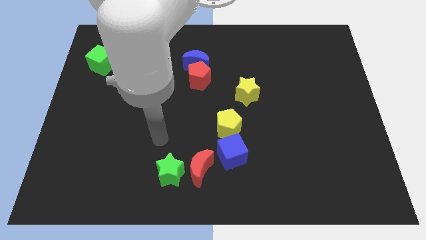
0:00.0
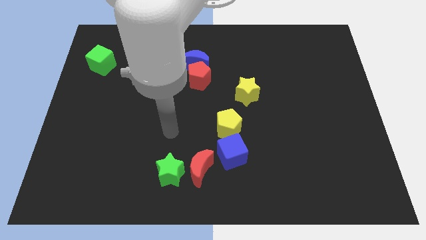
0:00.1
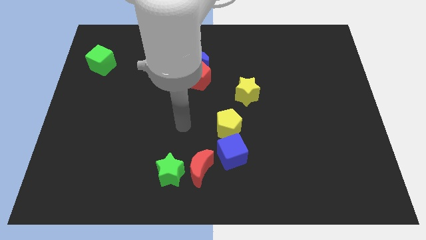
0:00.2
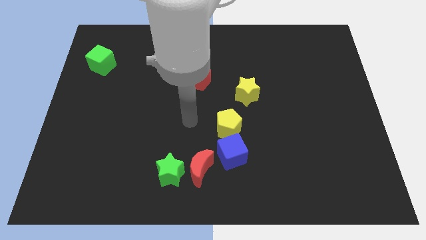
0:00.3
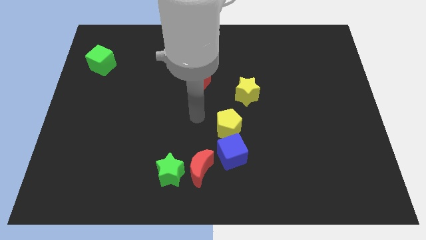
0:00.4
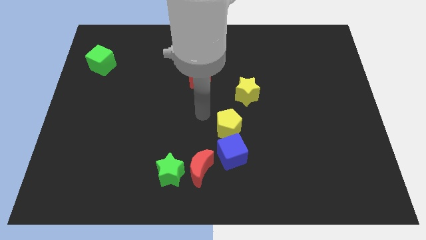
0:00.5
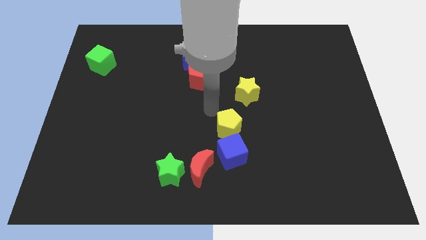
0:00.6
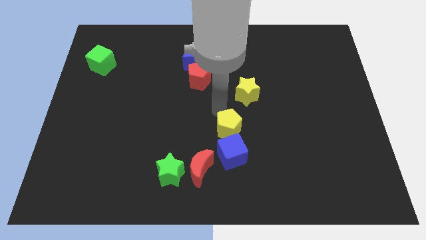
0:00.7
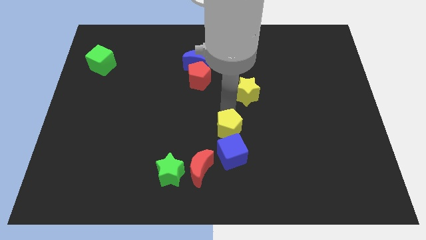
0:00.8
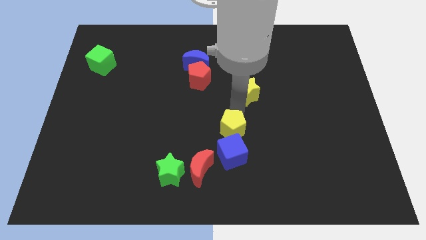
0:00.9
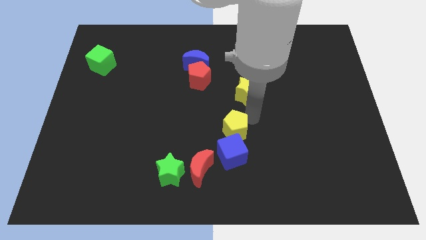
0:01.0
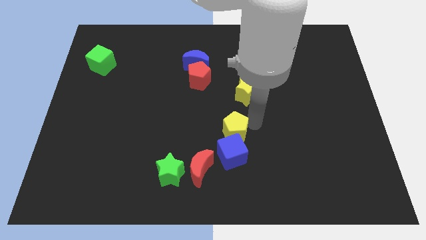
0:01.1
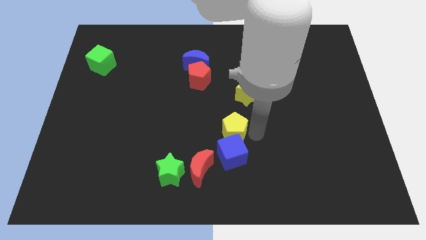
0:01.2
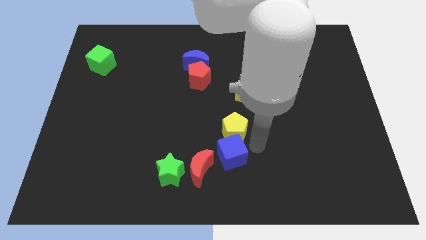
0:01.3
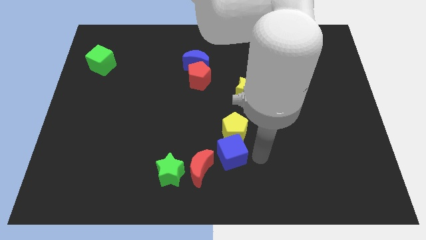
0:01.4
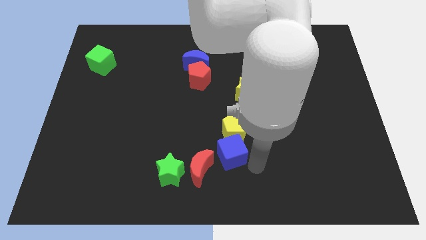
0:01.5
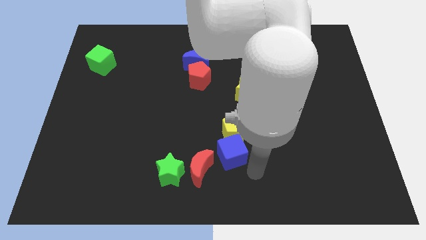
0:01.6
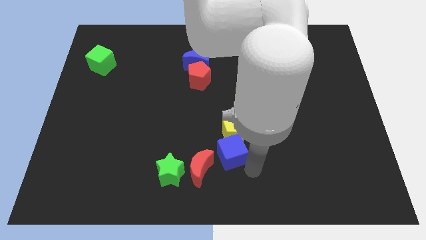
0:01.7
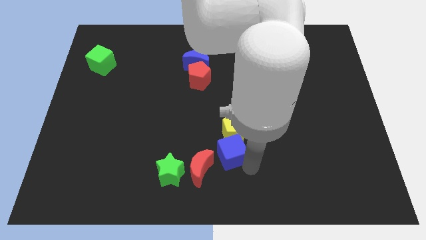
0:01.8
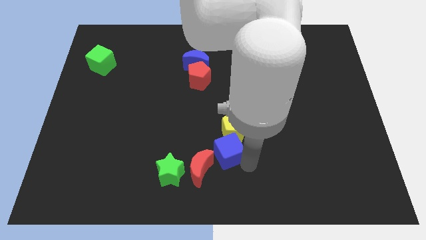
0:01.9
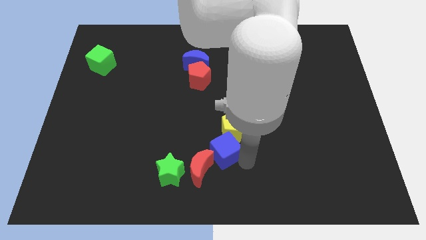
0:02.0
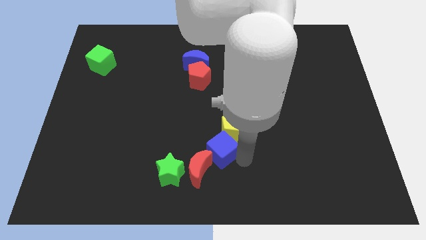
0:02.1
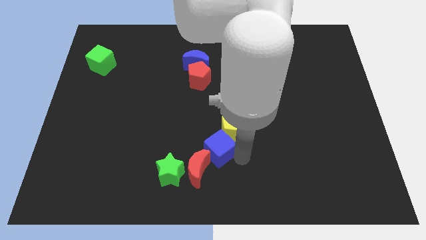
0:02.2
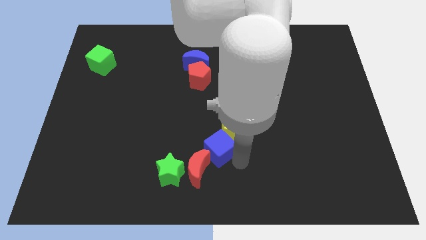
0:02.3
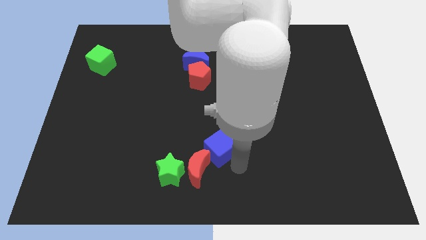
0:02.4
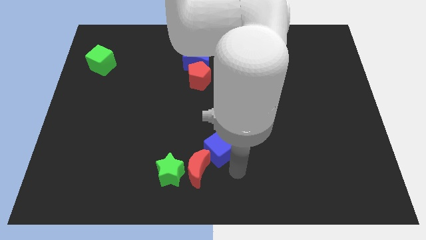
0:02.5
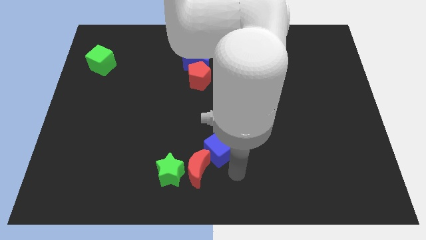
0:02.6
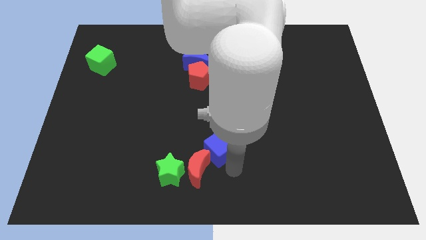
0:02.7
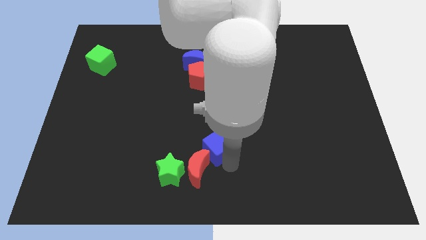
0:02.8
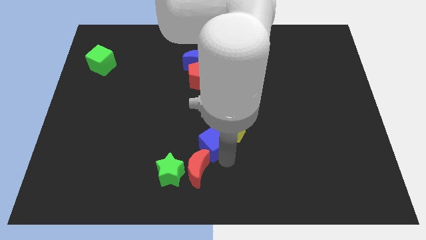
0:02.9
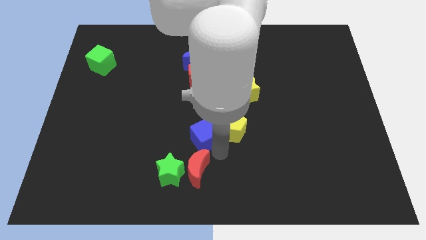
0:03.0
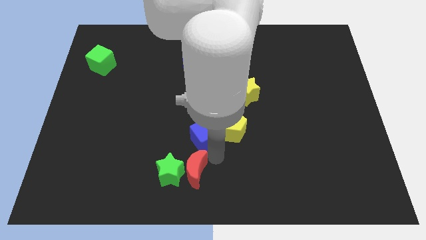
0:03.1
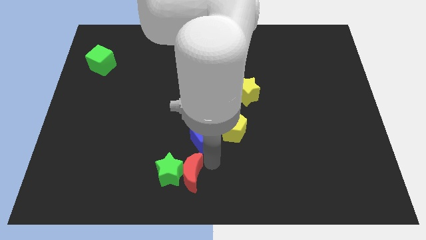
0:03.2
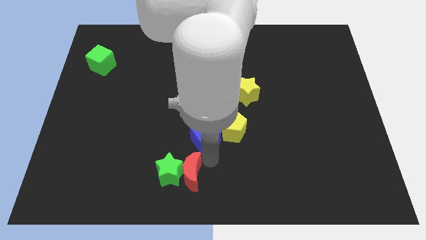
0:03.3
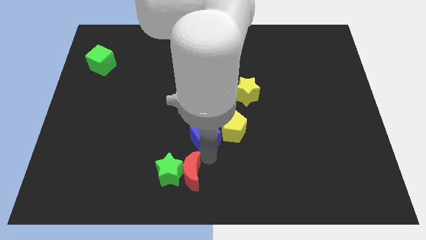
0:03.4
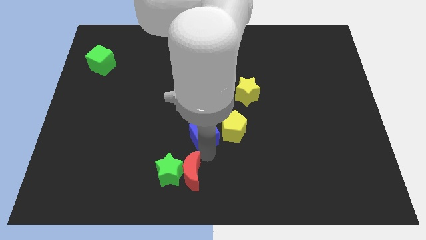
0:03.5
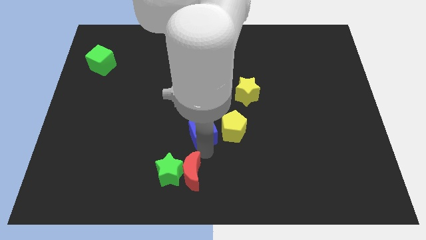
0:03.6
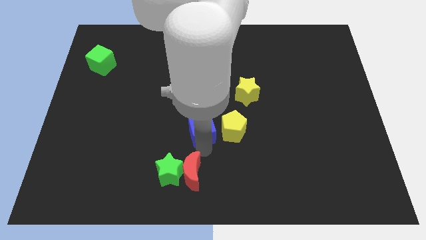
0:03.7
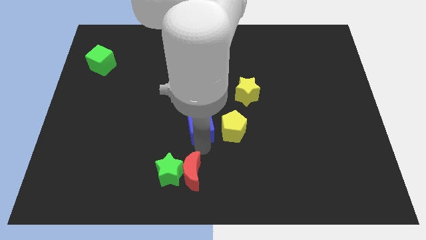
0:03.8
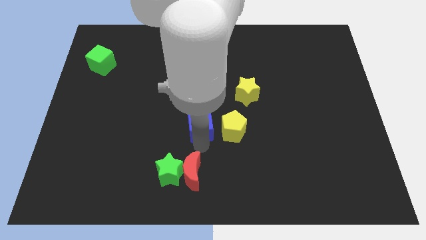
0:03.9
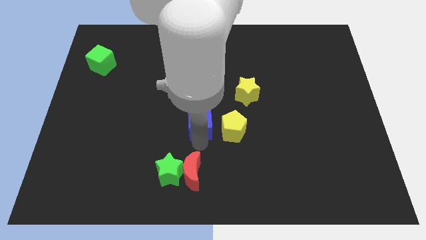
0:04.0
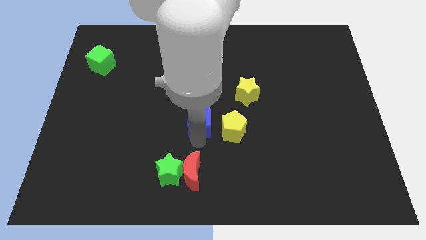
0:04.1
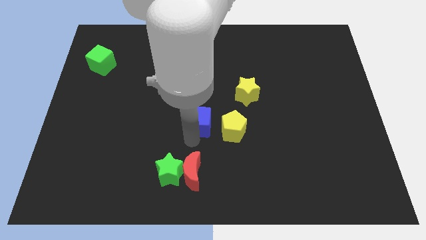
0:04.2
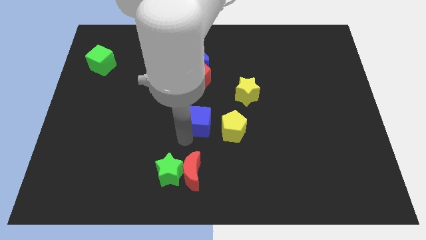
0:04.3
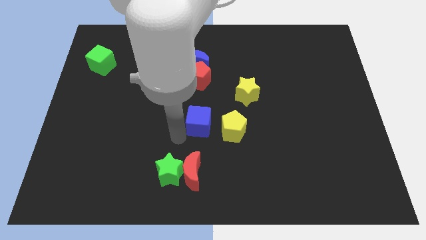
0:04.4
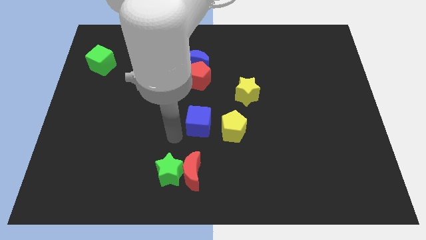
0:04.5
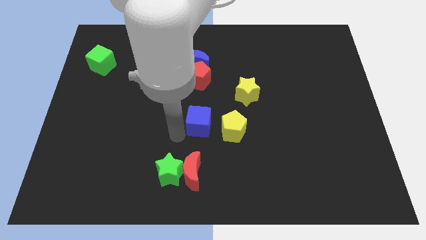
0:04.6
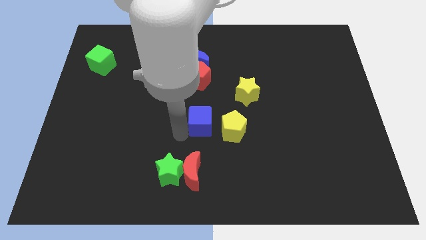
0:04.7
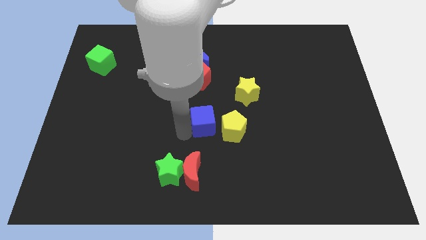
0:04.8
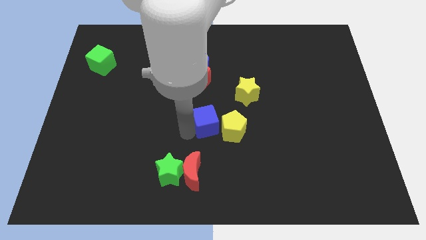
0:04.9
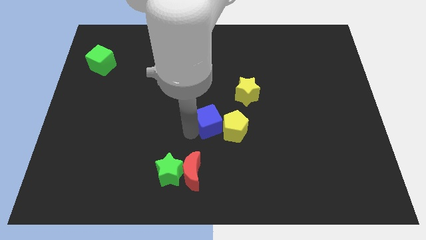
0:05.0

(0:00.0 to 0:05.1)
move the blue cube to the bottom left side of the yellow star

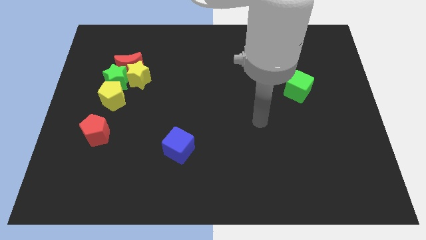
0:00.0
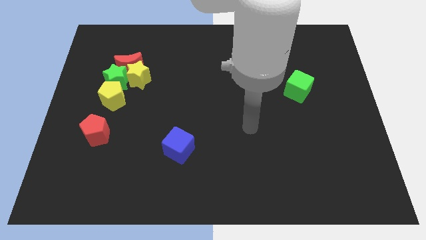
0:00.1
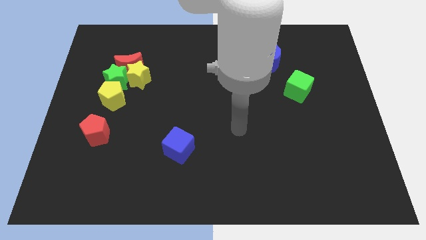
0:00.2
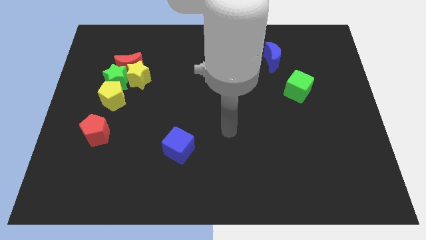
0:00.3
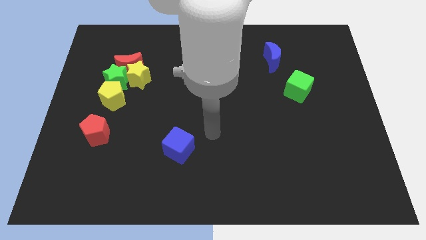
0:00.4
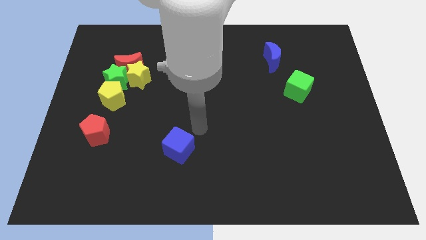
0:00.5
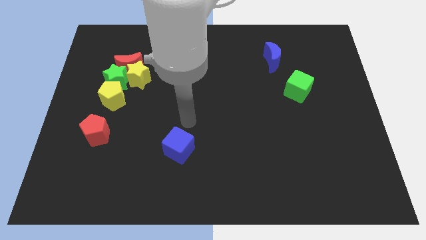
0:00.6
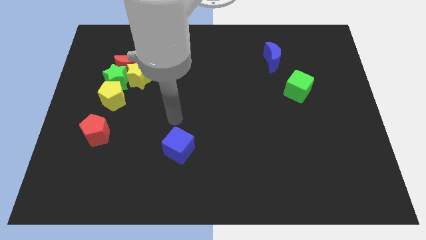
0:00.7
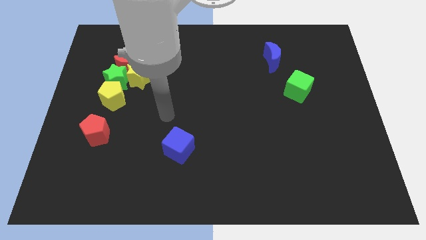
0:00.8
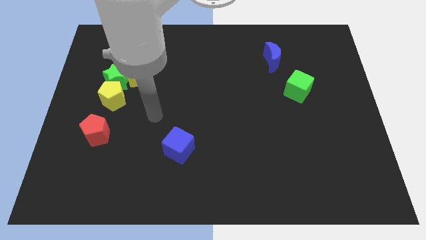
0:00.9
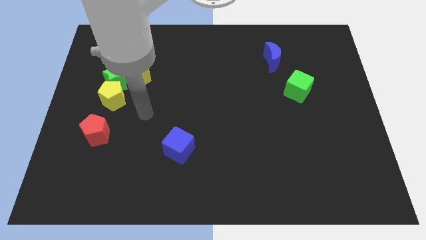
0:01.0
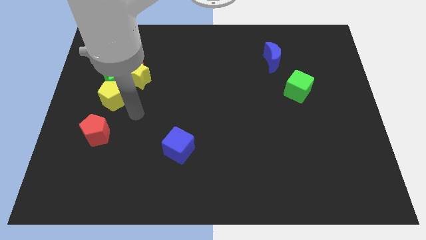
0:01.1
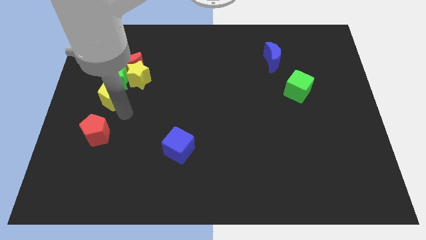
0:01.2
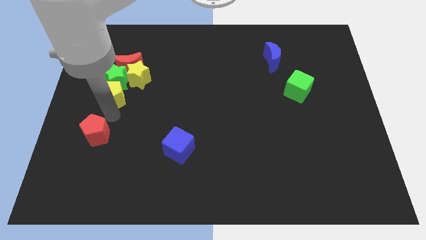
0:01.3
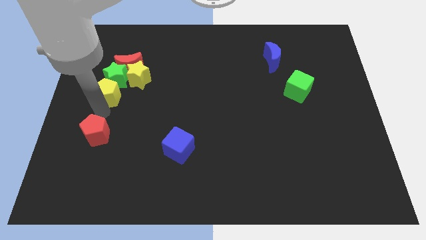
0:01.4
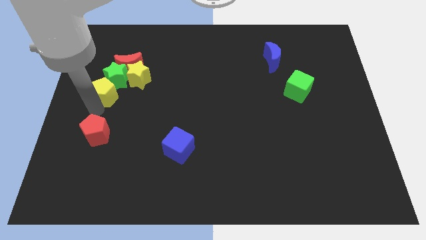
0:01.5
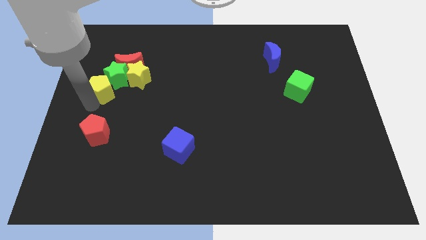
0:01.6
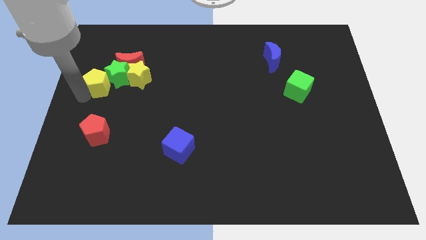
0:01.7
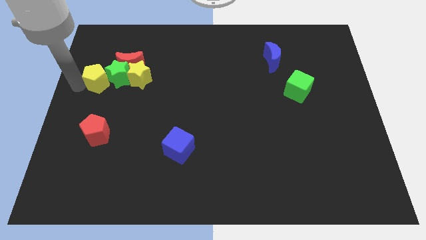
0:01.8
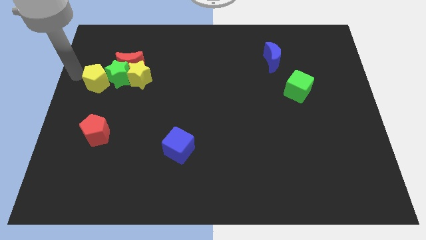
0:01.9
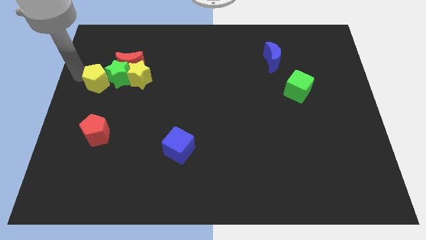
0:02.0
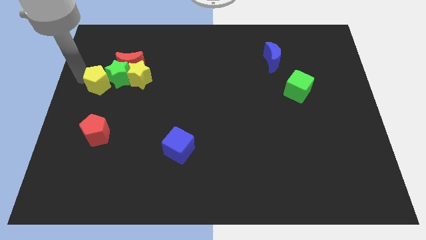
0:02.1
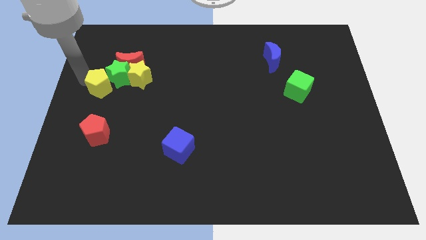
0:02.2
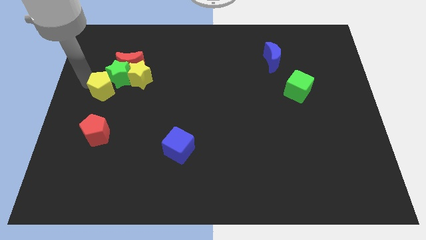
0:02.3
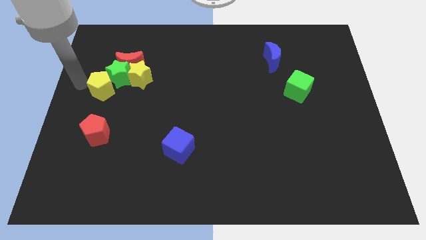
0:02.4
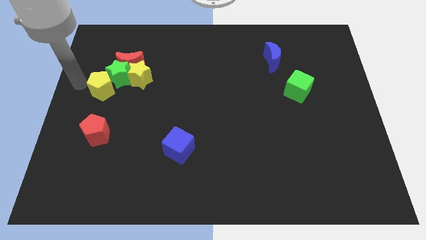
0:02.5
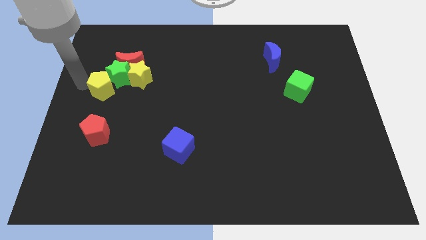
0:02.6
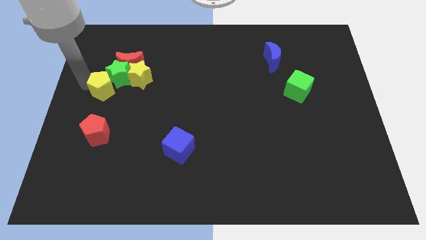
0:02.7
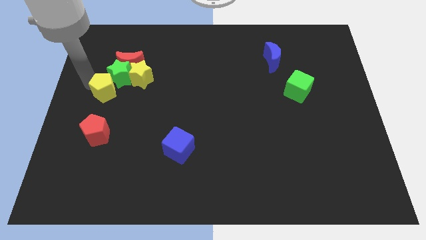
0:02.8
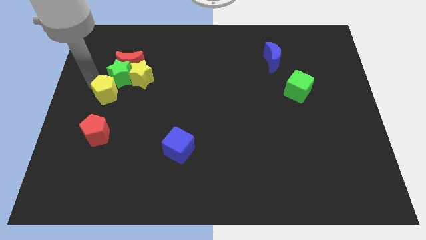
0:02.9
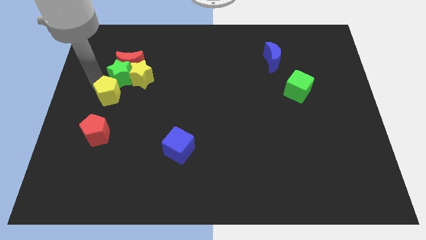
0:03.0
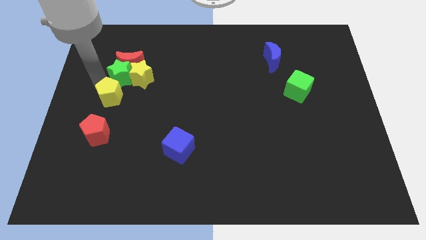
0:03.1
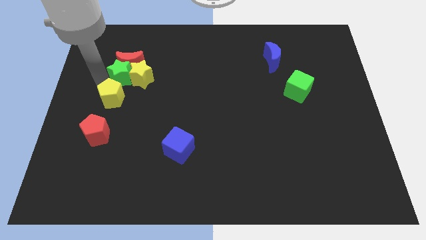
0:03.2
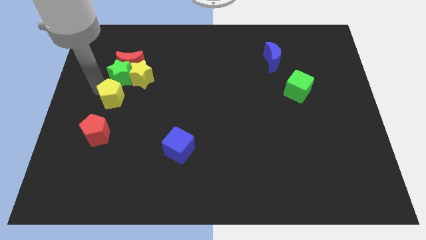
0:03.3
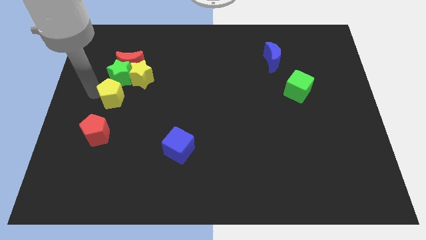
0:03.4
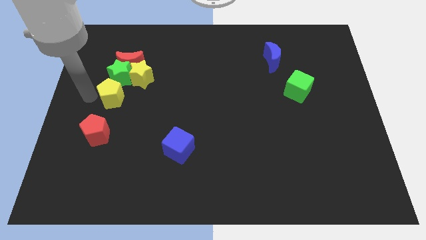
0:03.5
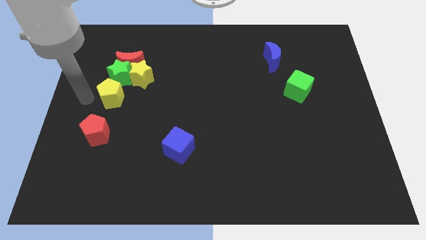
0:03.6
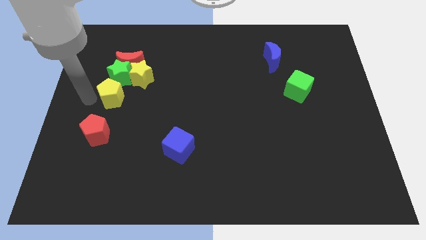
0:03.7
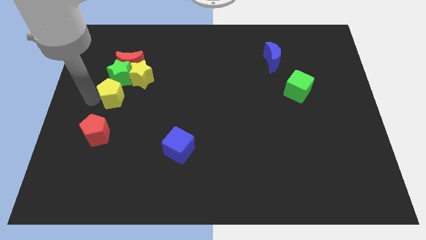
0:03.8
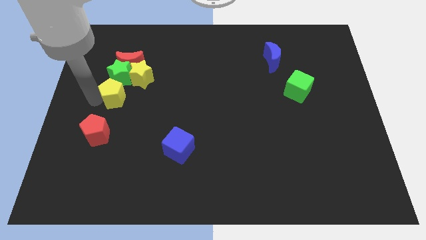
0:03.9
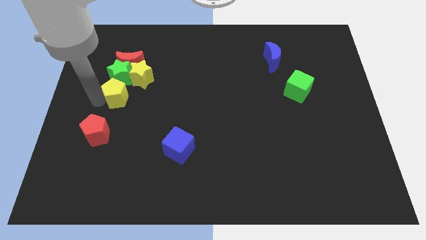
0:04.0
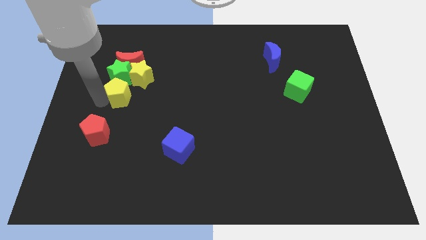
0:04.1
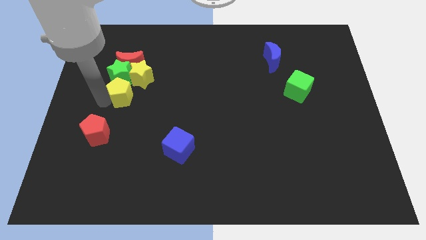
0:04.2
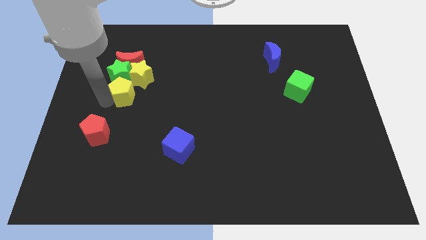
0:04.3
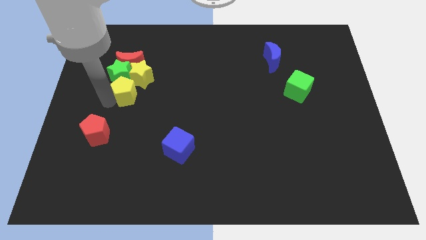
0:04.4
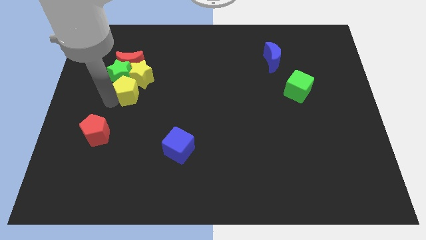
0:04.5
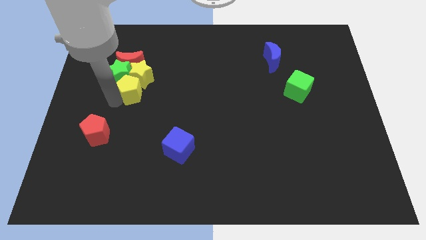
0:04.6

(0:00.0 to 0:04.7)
push the yellow pentagon to the bottom right side of the yellow star
